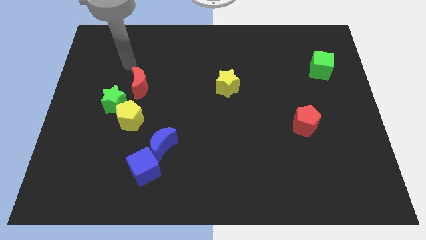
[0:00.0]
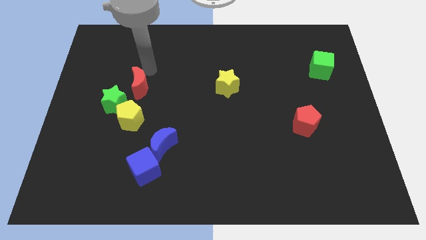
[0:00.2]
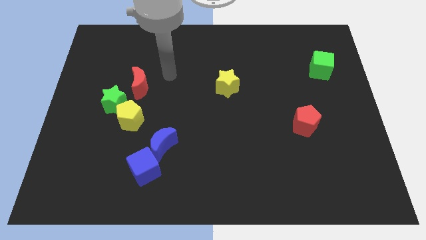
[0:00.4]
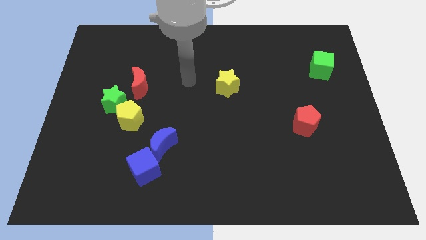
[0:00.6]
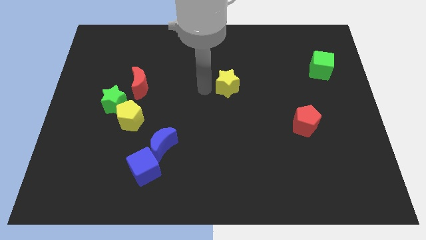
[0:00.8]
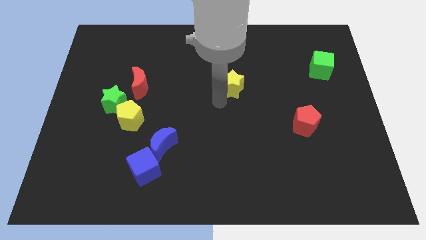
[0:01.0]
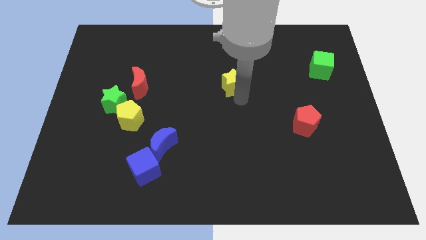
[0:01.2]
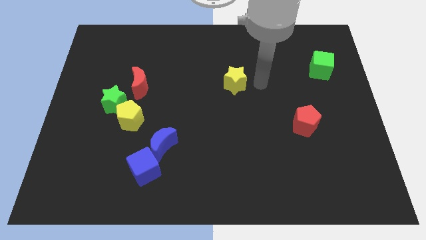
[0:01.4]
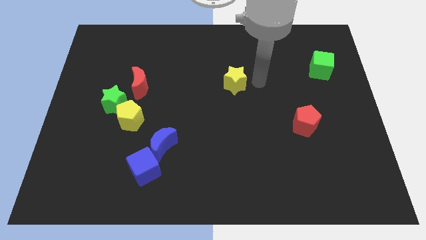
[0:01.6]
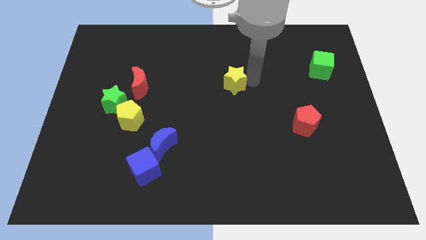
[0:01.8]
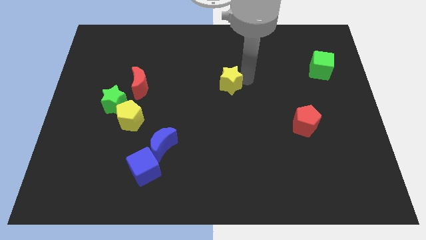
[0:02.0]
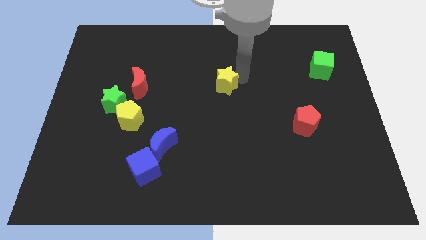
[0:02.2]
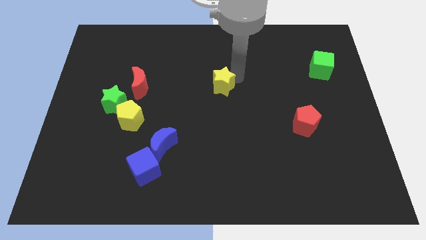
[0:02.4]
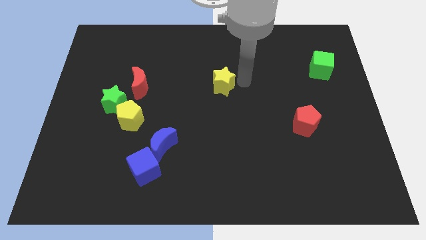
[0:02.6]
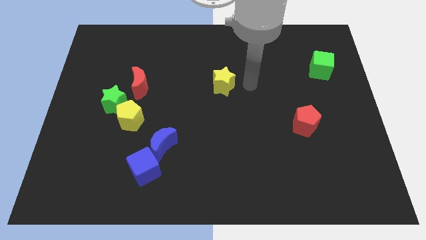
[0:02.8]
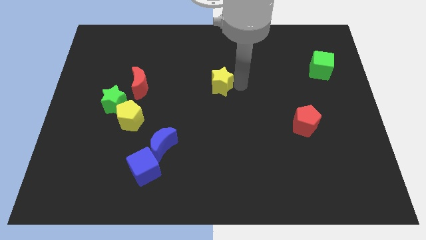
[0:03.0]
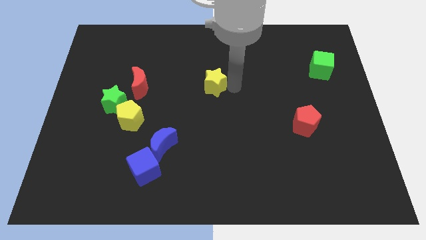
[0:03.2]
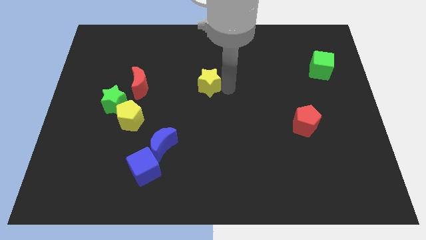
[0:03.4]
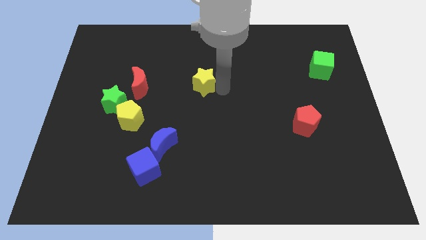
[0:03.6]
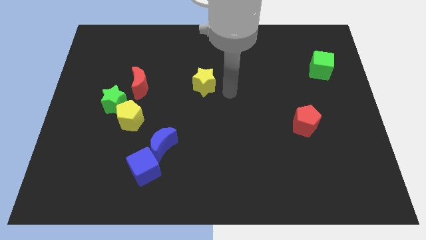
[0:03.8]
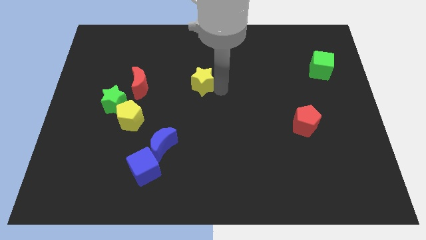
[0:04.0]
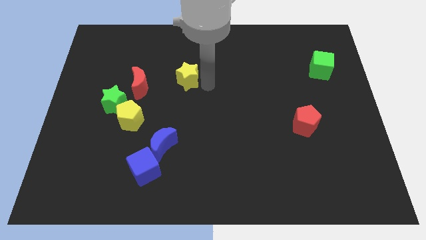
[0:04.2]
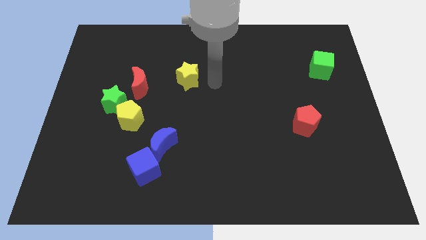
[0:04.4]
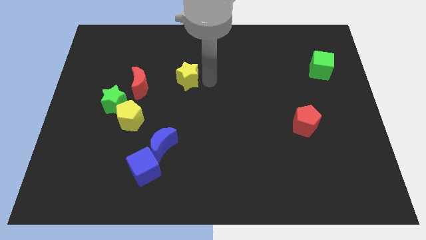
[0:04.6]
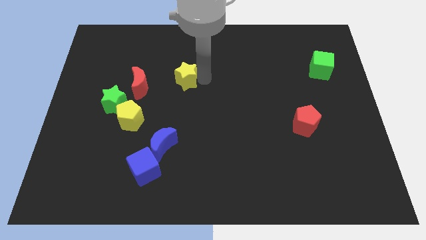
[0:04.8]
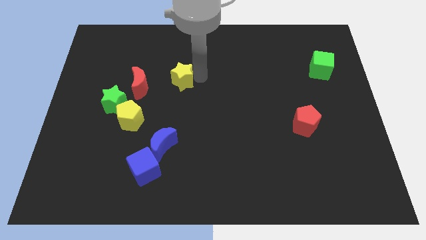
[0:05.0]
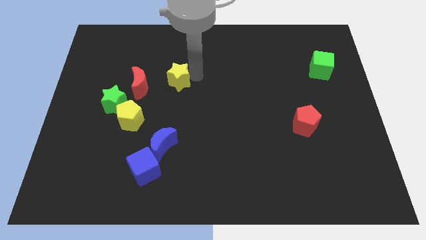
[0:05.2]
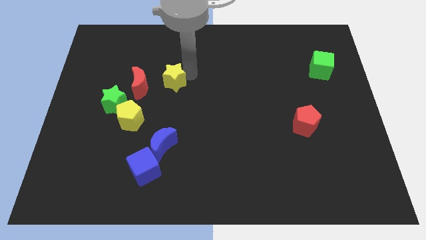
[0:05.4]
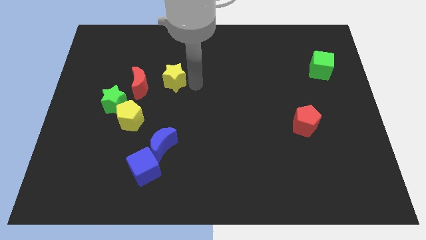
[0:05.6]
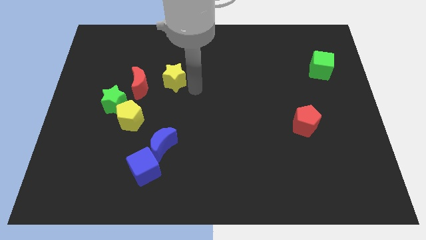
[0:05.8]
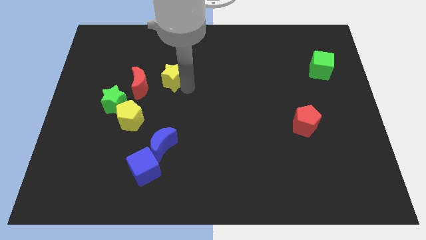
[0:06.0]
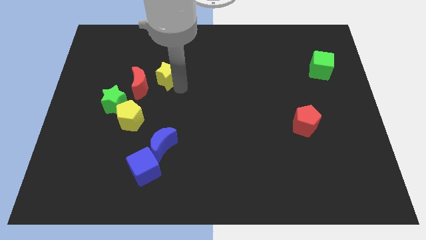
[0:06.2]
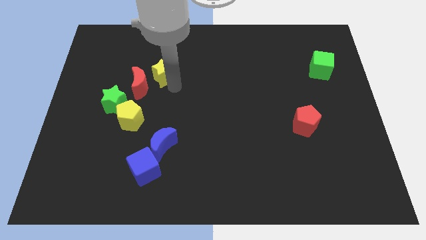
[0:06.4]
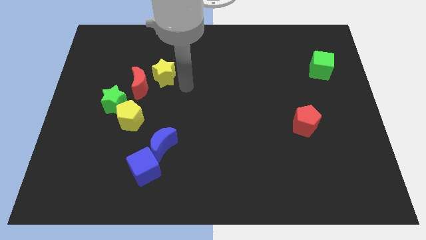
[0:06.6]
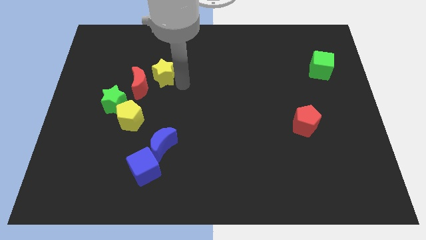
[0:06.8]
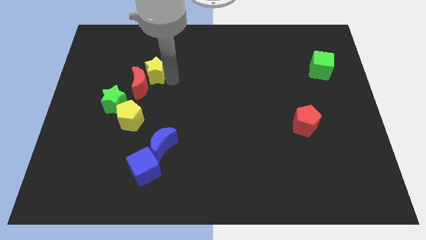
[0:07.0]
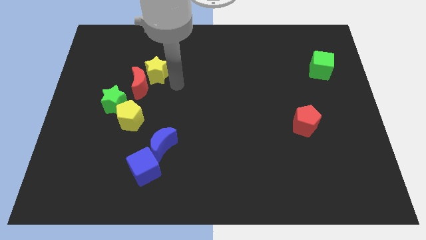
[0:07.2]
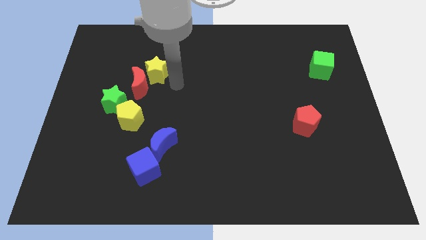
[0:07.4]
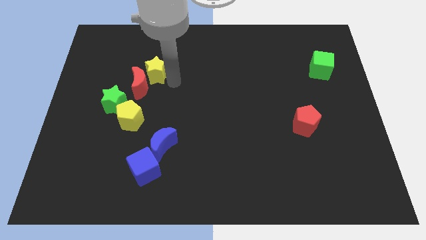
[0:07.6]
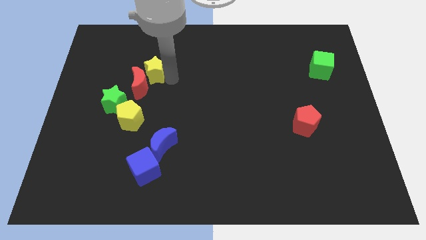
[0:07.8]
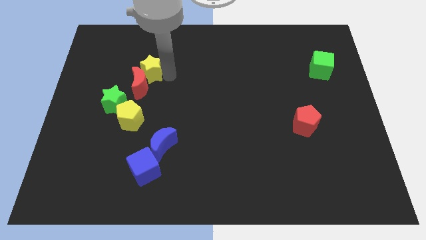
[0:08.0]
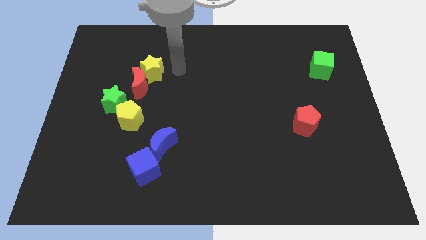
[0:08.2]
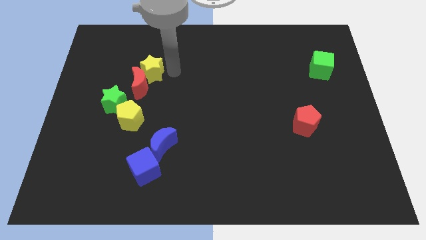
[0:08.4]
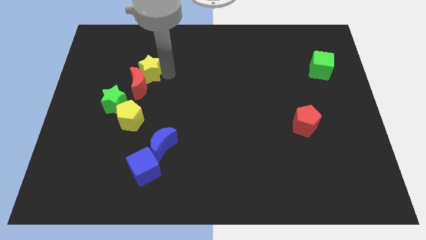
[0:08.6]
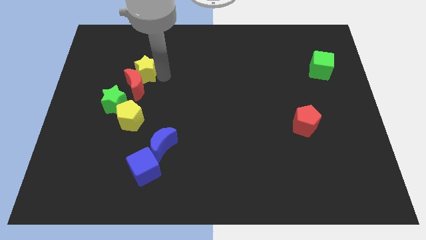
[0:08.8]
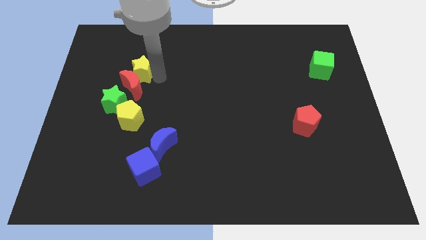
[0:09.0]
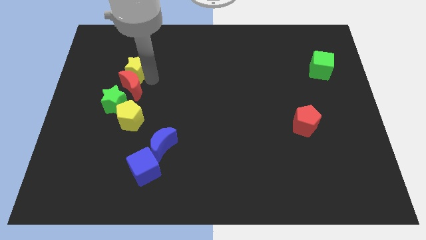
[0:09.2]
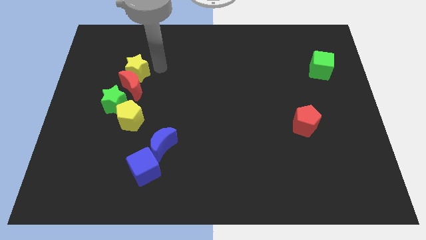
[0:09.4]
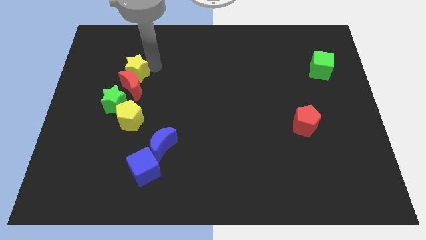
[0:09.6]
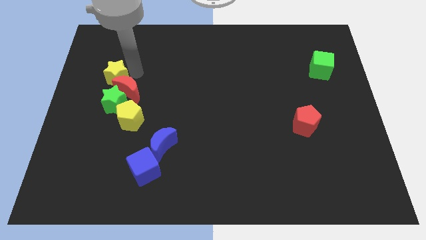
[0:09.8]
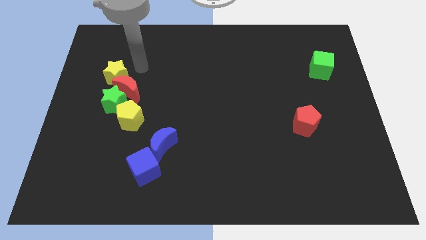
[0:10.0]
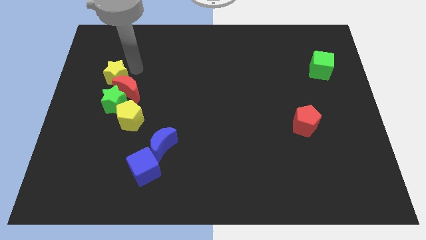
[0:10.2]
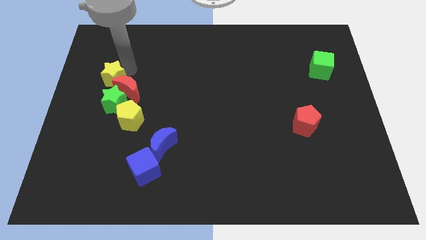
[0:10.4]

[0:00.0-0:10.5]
slide the yellow star diagonally up and to the left of the green star

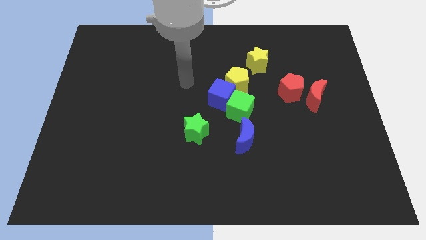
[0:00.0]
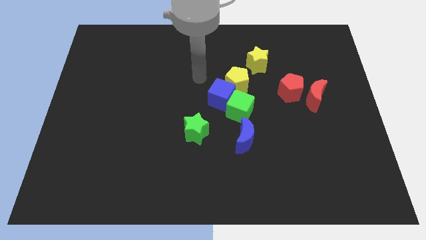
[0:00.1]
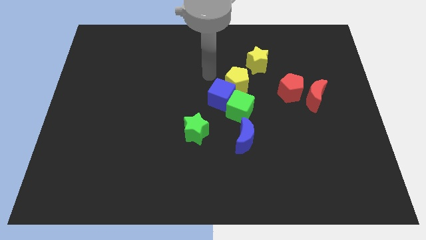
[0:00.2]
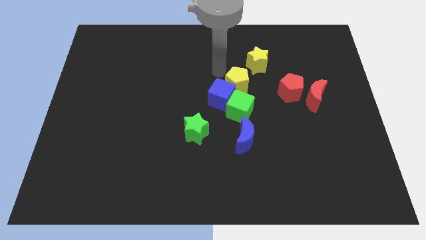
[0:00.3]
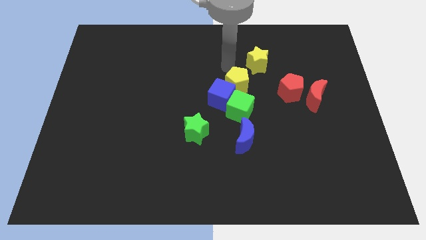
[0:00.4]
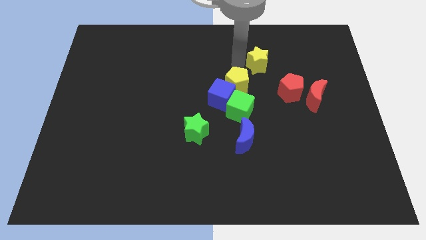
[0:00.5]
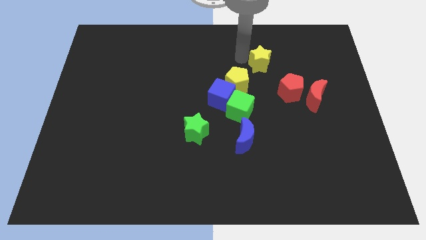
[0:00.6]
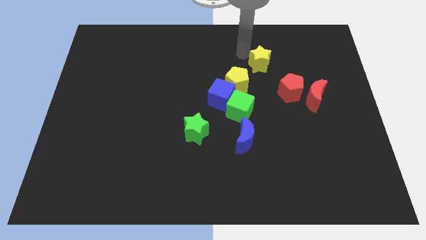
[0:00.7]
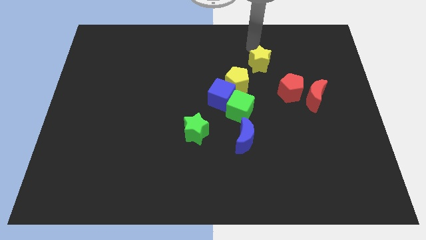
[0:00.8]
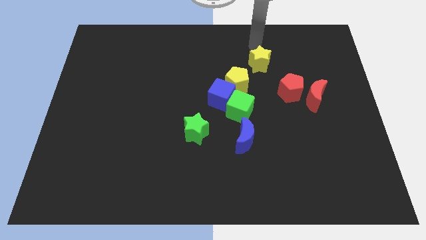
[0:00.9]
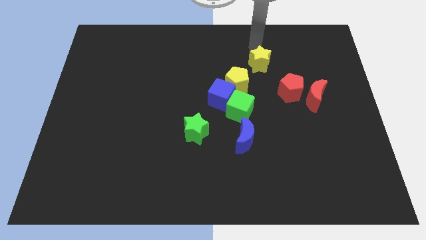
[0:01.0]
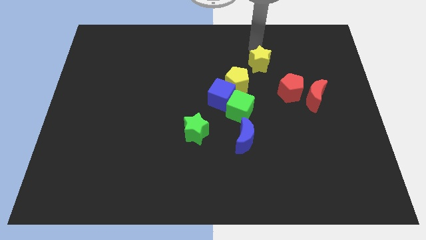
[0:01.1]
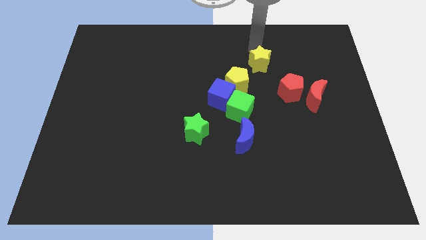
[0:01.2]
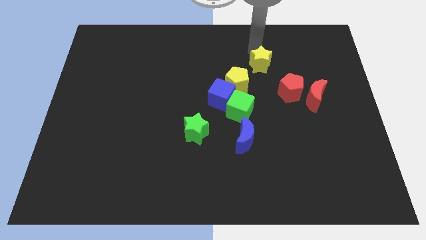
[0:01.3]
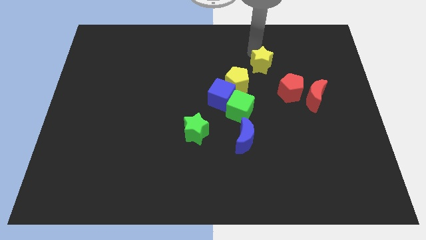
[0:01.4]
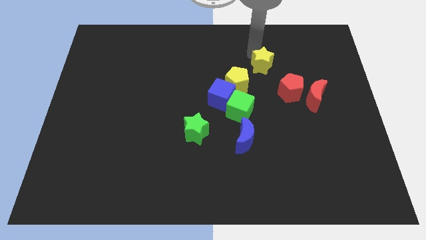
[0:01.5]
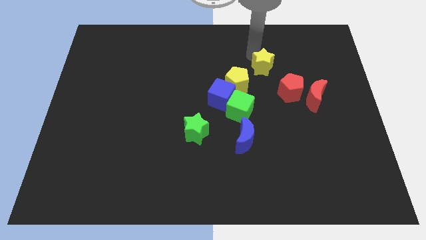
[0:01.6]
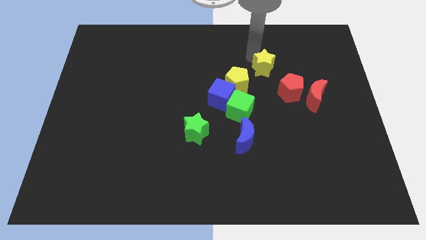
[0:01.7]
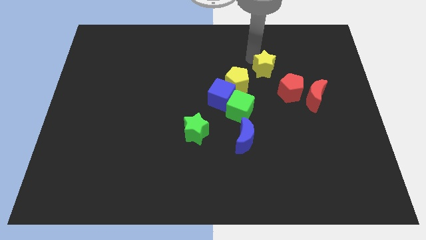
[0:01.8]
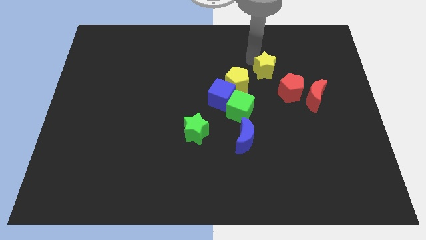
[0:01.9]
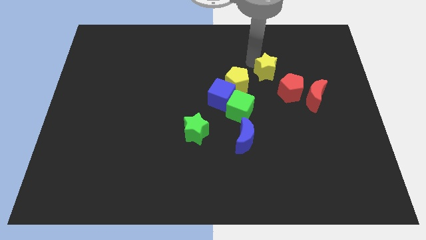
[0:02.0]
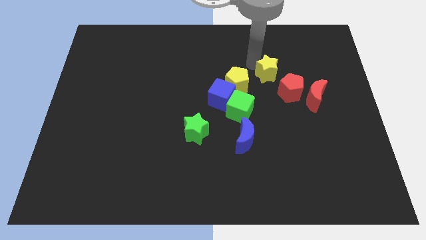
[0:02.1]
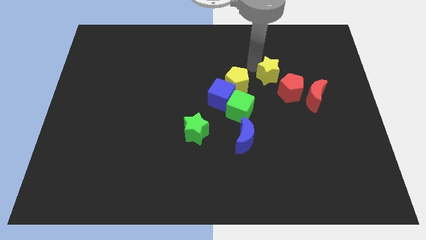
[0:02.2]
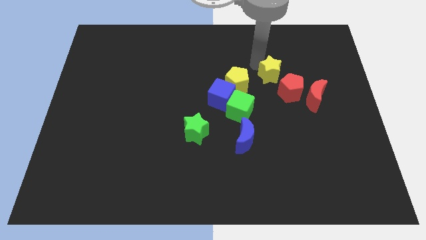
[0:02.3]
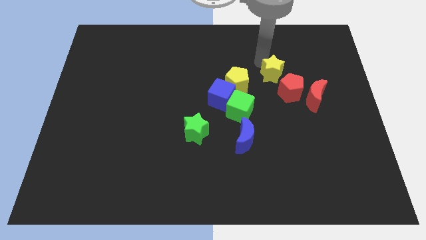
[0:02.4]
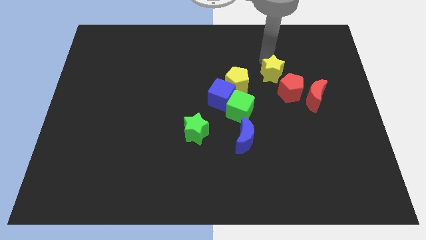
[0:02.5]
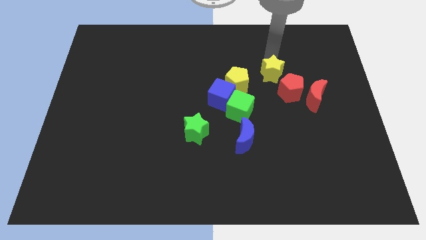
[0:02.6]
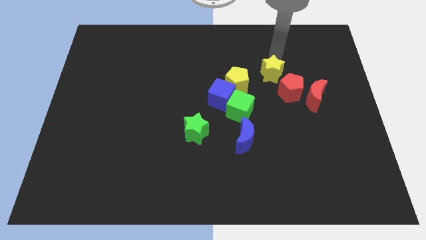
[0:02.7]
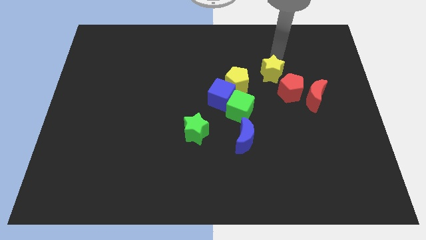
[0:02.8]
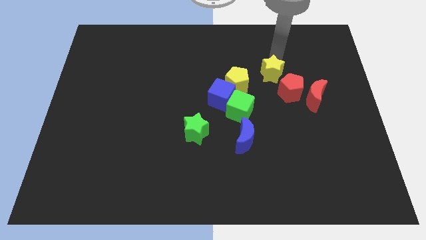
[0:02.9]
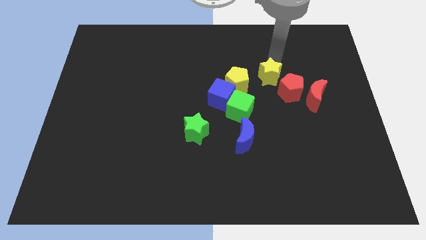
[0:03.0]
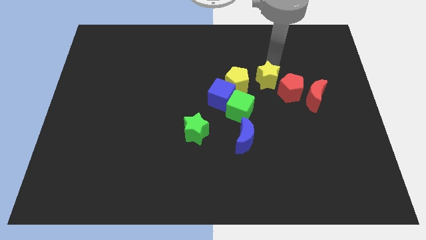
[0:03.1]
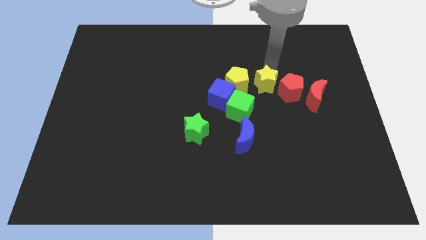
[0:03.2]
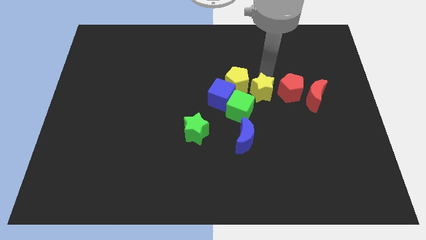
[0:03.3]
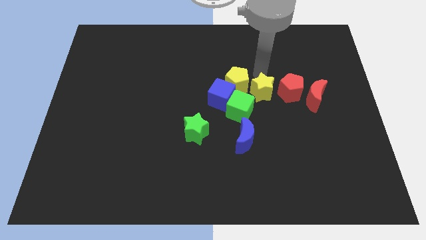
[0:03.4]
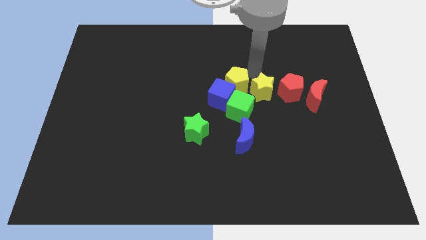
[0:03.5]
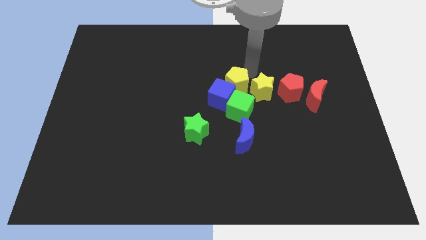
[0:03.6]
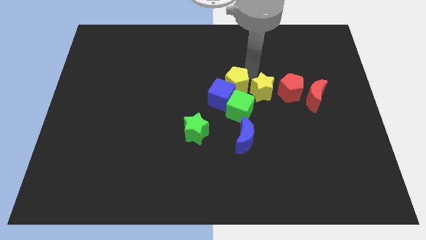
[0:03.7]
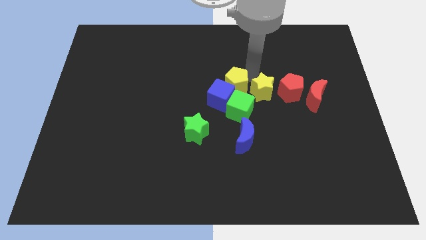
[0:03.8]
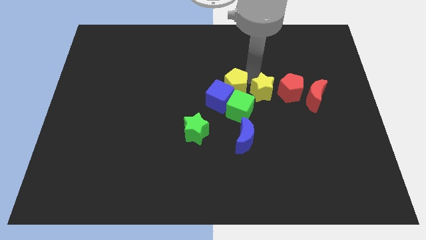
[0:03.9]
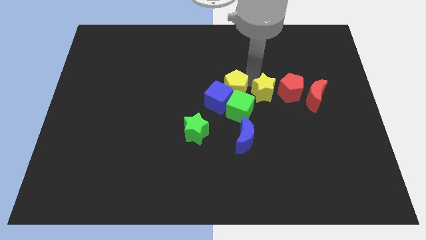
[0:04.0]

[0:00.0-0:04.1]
slide the yellow star to the bottom left side of the red pentagon
